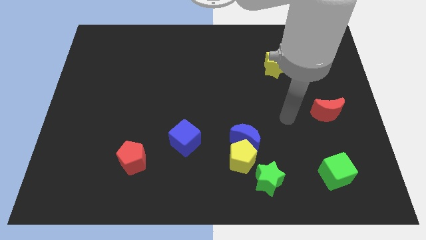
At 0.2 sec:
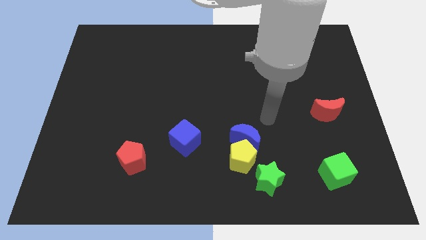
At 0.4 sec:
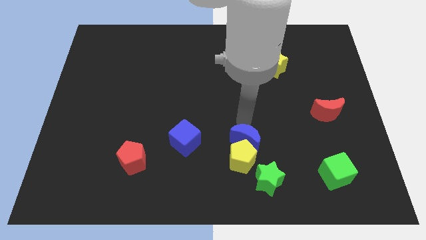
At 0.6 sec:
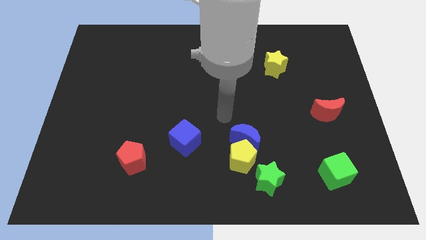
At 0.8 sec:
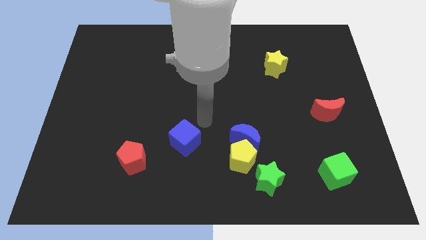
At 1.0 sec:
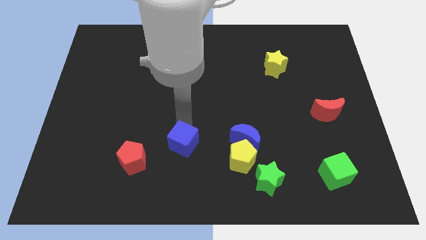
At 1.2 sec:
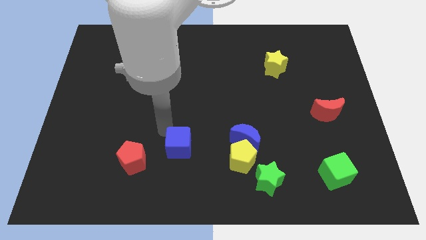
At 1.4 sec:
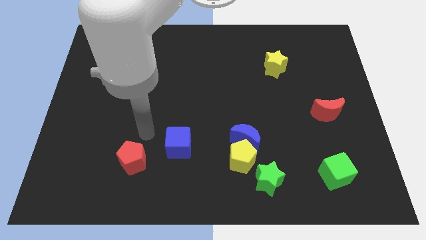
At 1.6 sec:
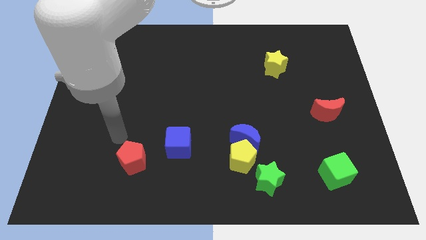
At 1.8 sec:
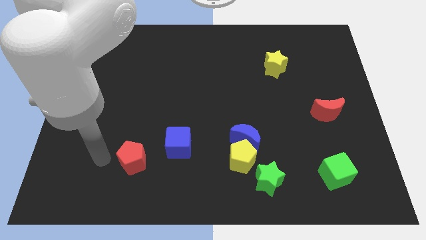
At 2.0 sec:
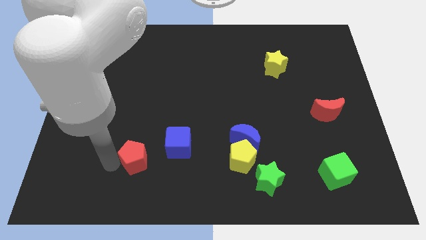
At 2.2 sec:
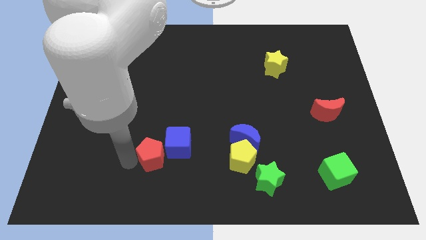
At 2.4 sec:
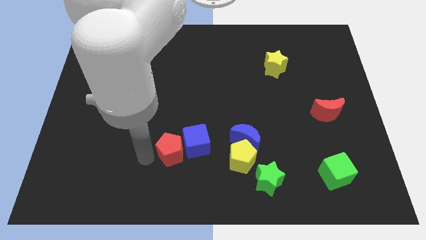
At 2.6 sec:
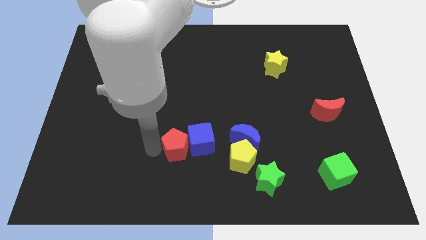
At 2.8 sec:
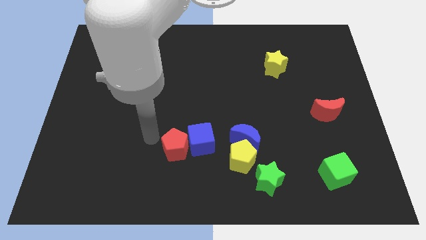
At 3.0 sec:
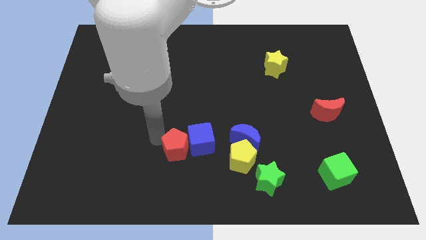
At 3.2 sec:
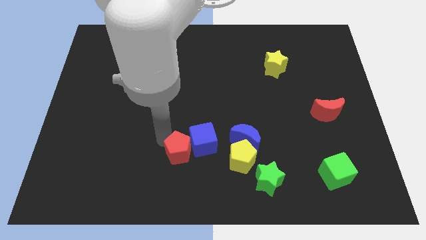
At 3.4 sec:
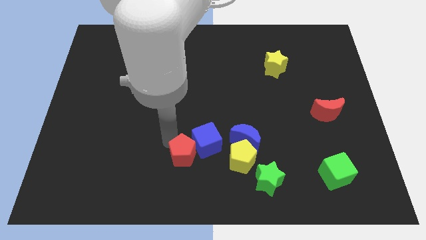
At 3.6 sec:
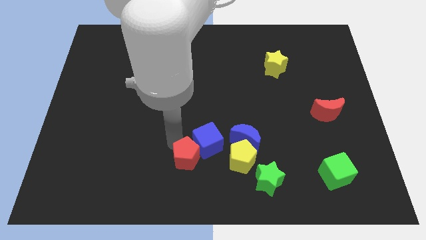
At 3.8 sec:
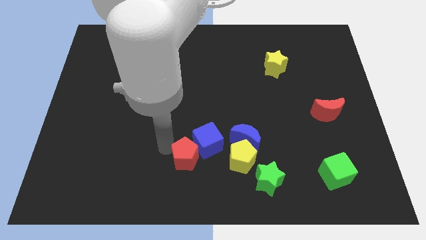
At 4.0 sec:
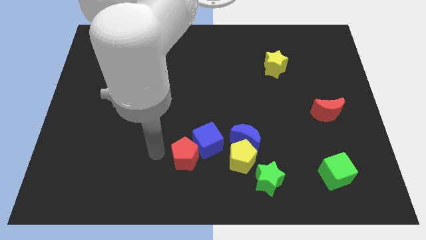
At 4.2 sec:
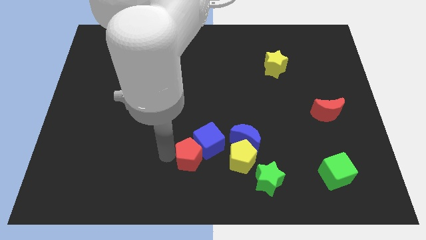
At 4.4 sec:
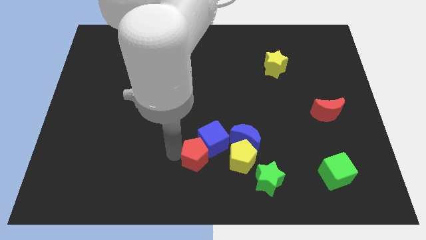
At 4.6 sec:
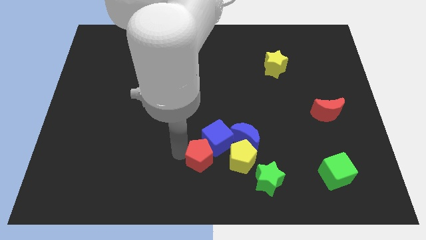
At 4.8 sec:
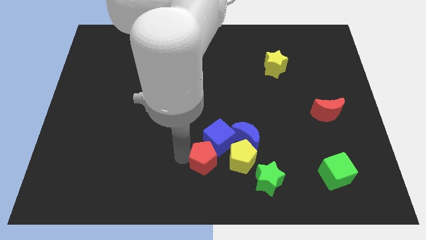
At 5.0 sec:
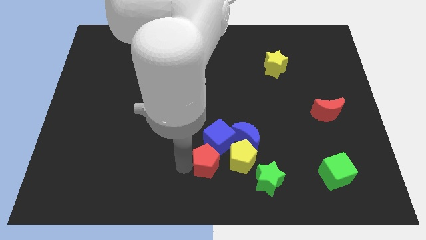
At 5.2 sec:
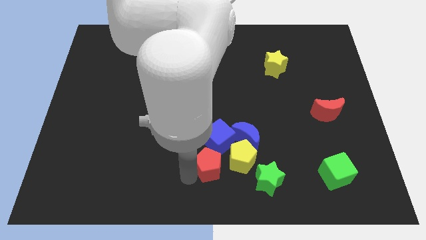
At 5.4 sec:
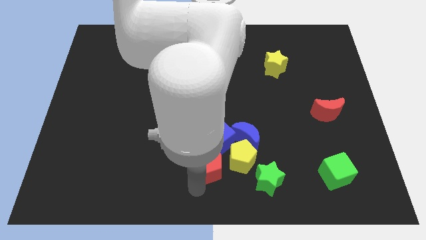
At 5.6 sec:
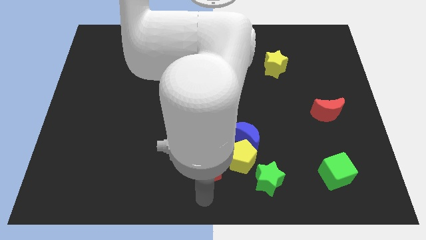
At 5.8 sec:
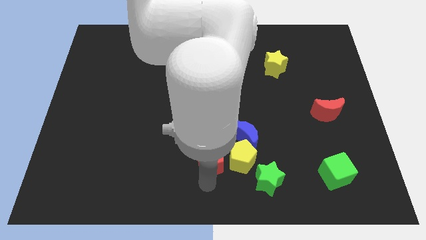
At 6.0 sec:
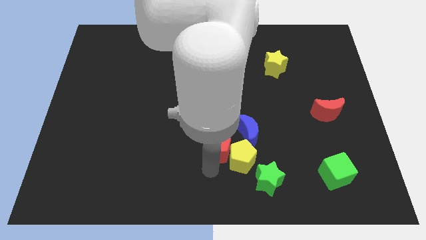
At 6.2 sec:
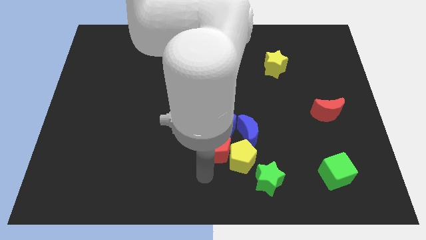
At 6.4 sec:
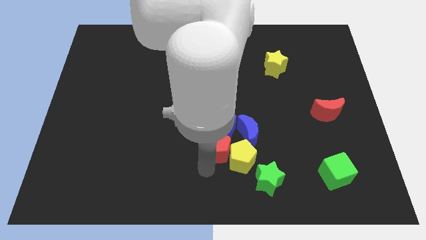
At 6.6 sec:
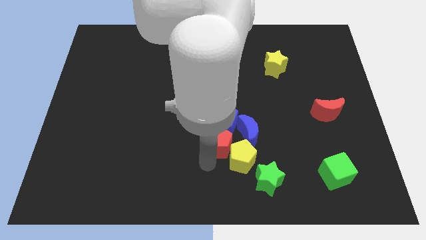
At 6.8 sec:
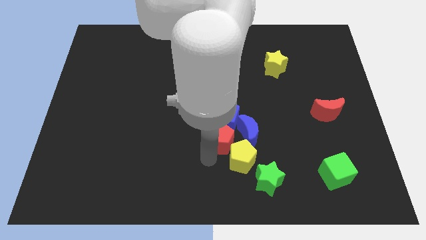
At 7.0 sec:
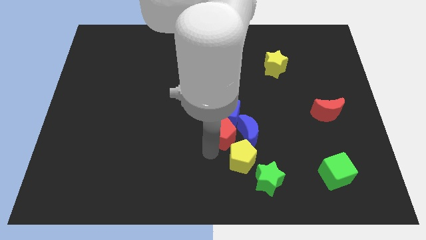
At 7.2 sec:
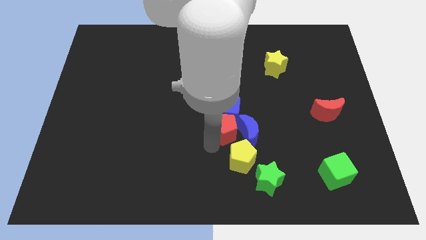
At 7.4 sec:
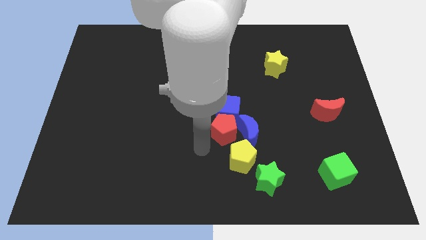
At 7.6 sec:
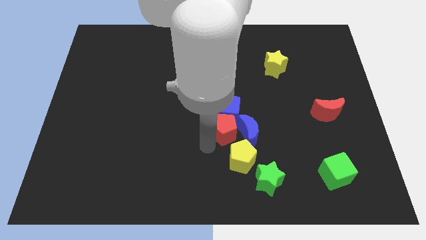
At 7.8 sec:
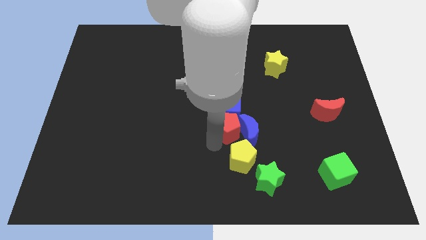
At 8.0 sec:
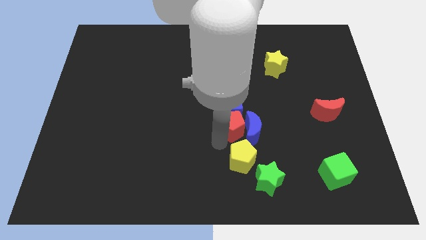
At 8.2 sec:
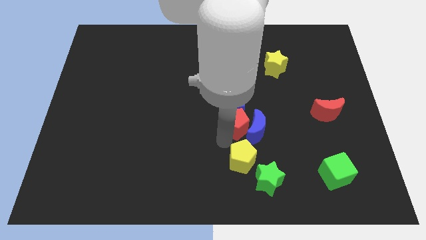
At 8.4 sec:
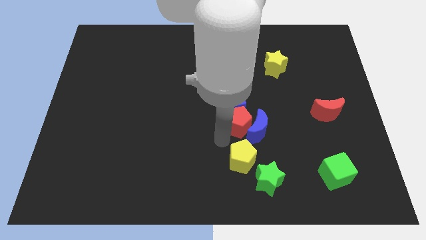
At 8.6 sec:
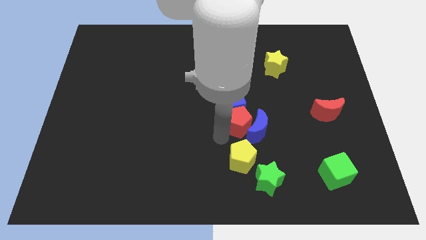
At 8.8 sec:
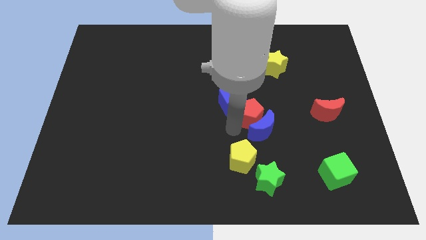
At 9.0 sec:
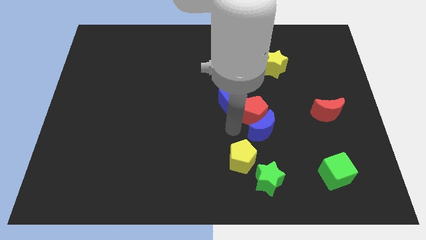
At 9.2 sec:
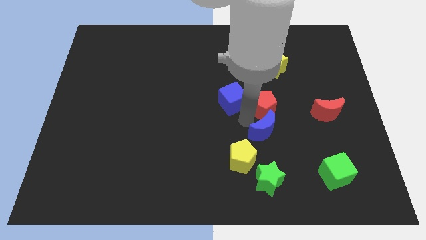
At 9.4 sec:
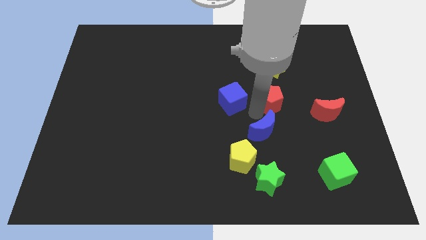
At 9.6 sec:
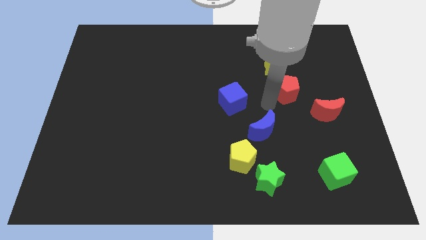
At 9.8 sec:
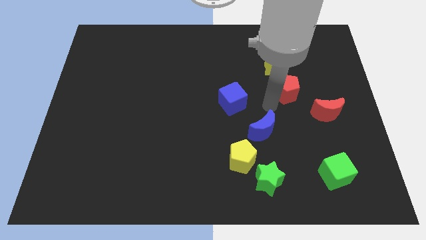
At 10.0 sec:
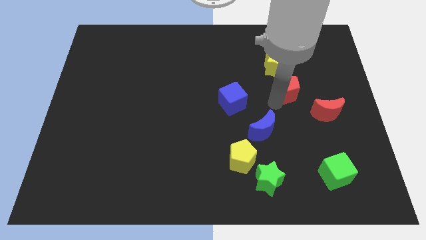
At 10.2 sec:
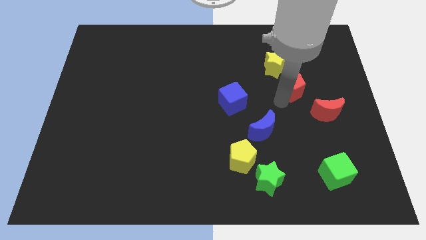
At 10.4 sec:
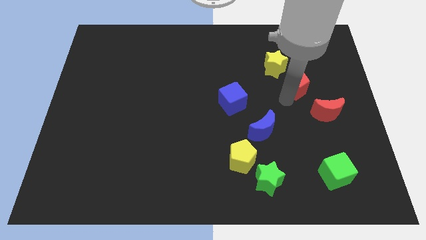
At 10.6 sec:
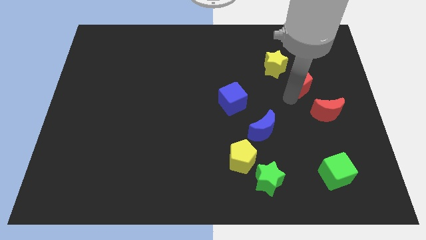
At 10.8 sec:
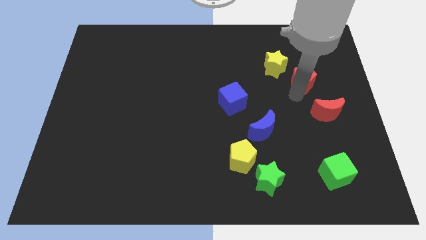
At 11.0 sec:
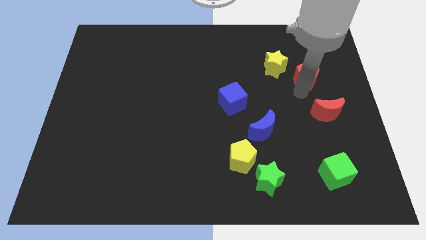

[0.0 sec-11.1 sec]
move the red pentagon to the right of the yellow star

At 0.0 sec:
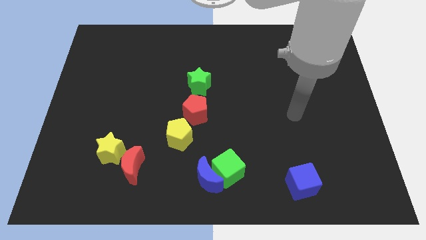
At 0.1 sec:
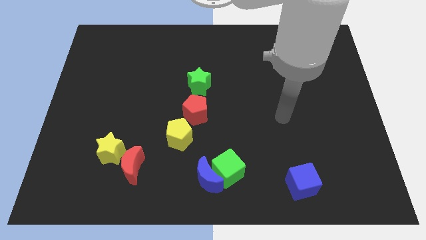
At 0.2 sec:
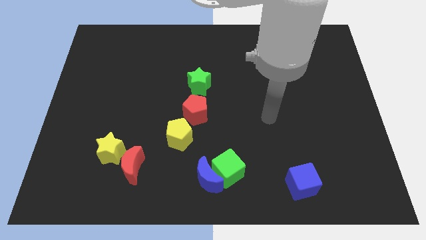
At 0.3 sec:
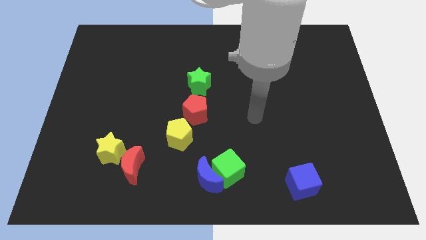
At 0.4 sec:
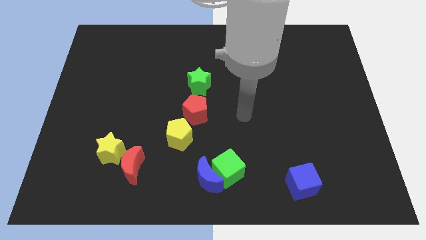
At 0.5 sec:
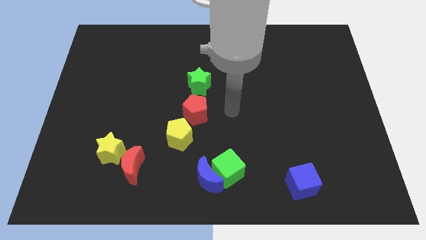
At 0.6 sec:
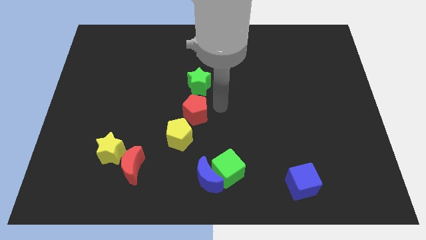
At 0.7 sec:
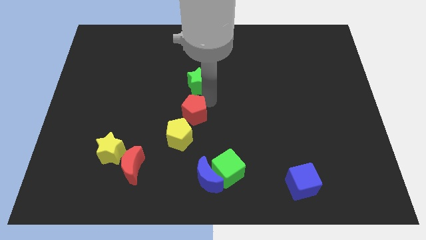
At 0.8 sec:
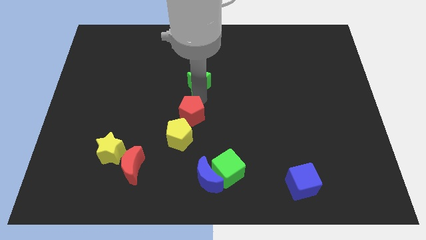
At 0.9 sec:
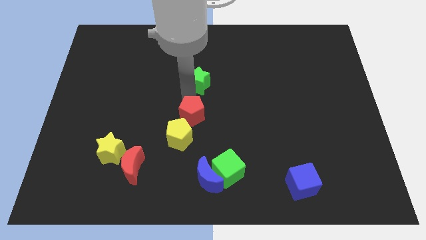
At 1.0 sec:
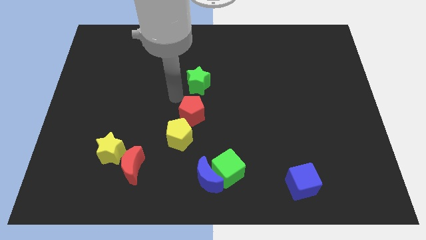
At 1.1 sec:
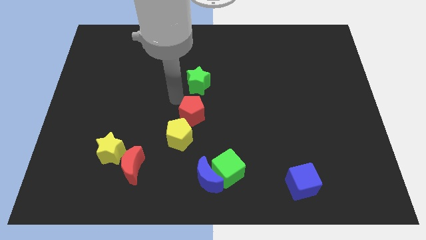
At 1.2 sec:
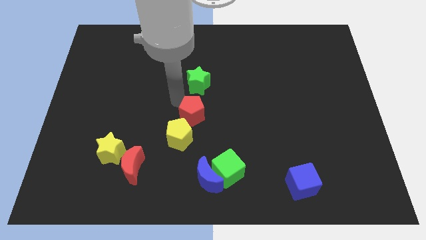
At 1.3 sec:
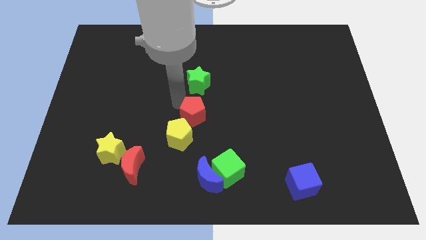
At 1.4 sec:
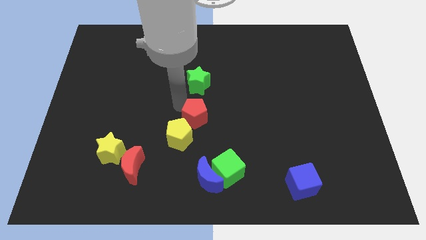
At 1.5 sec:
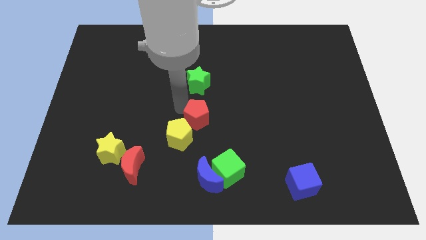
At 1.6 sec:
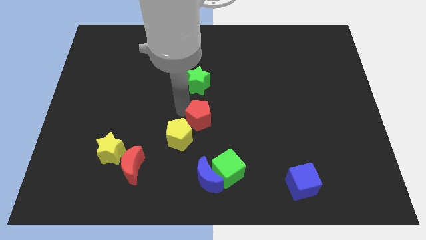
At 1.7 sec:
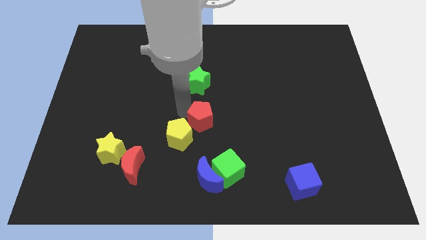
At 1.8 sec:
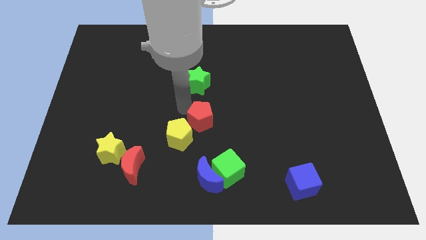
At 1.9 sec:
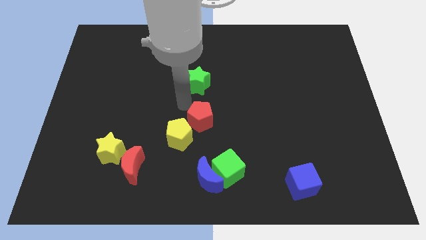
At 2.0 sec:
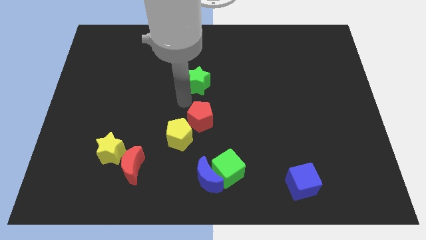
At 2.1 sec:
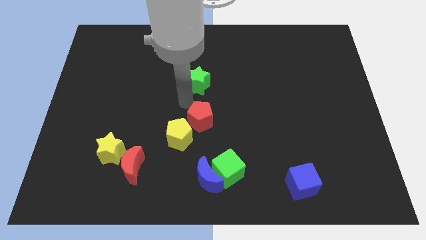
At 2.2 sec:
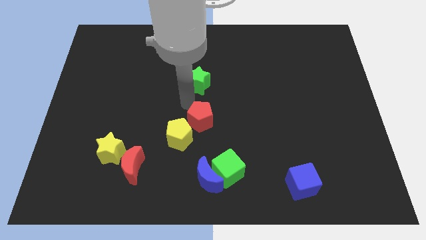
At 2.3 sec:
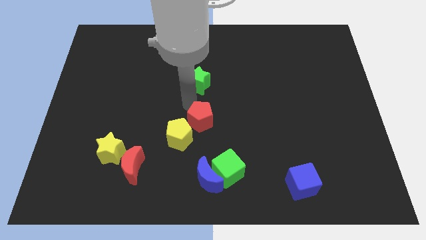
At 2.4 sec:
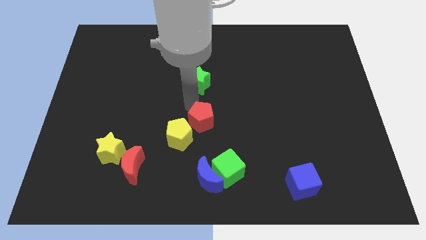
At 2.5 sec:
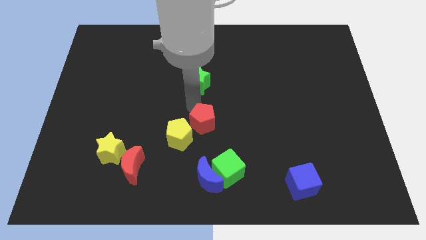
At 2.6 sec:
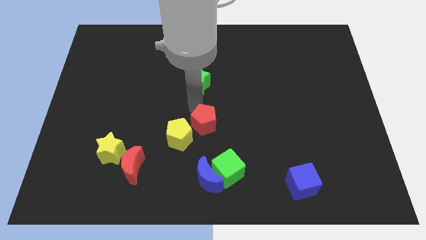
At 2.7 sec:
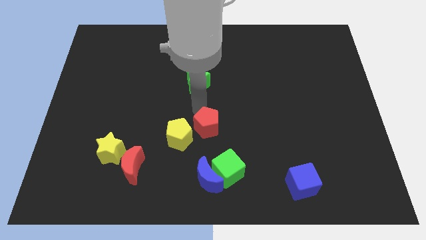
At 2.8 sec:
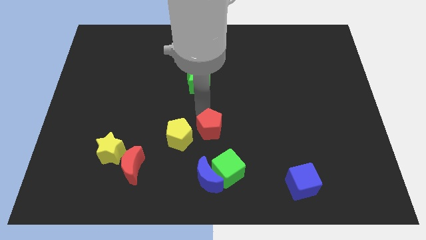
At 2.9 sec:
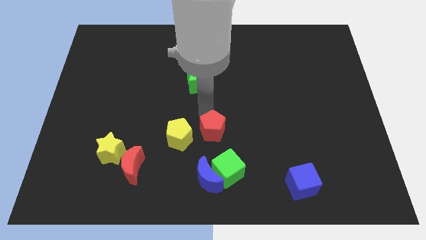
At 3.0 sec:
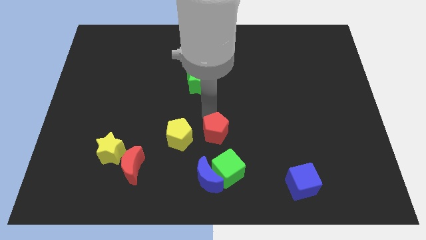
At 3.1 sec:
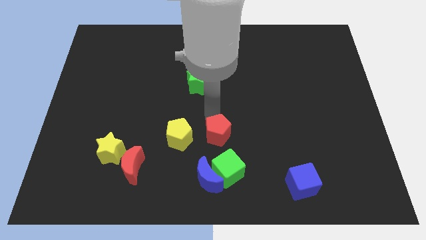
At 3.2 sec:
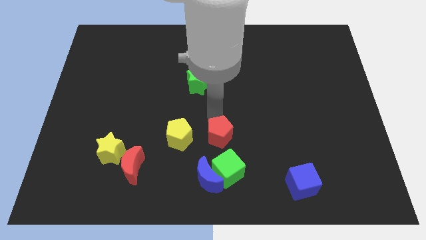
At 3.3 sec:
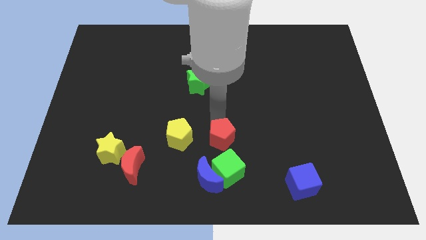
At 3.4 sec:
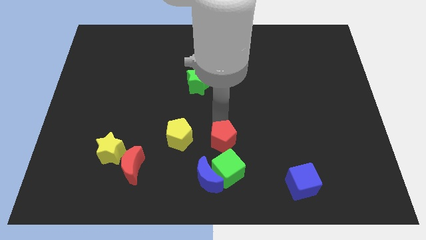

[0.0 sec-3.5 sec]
move the red pentagon to the top right of the blue moon
